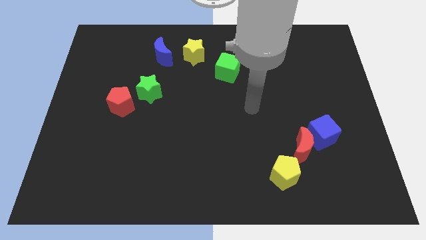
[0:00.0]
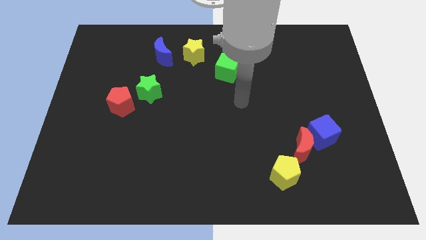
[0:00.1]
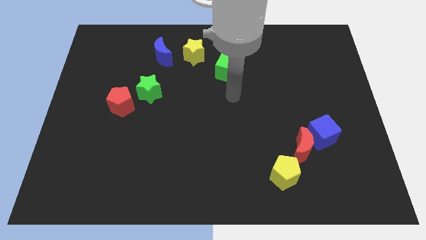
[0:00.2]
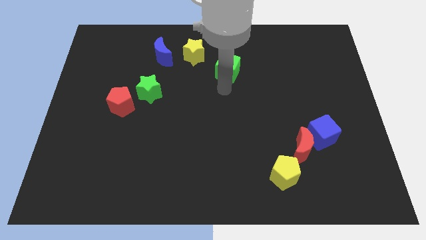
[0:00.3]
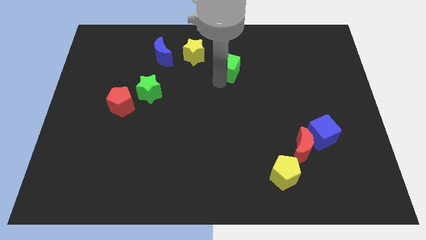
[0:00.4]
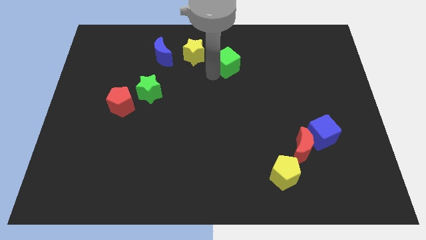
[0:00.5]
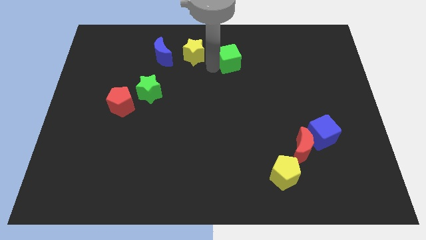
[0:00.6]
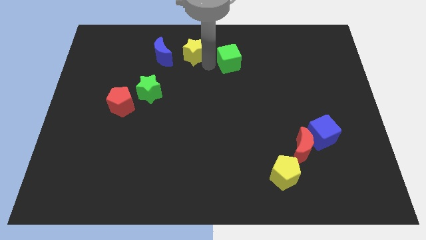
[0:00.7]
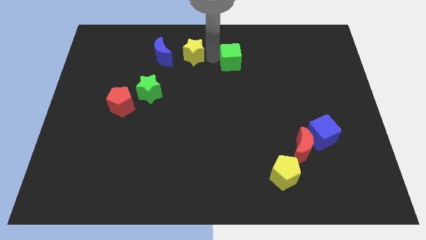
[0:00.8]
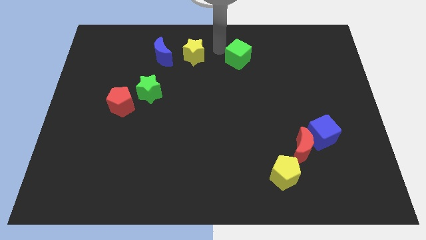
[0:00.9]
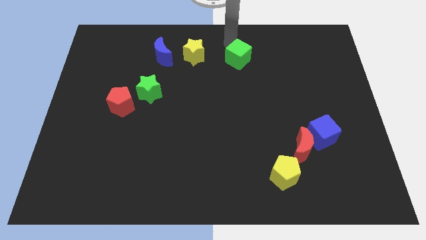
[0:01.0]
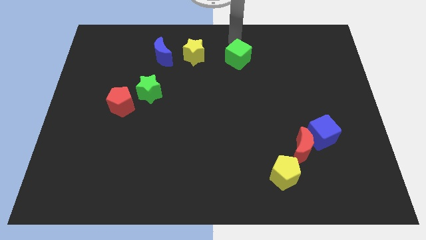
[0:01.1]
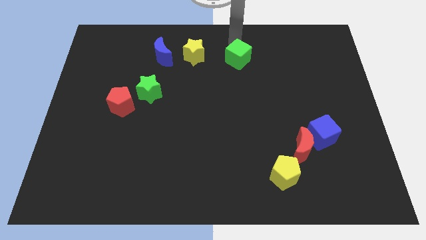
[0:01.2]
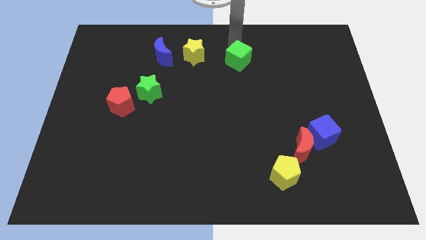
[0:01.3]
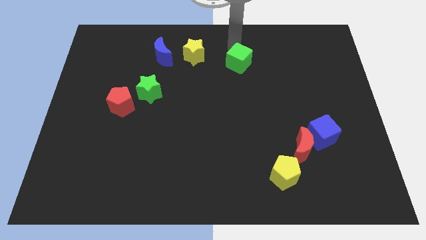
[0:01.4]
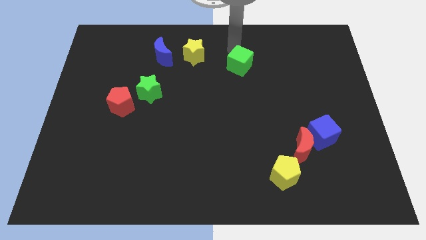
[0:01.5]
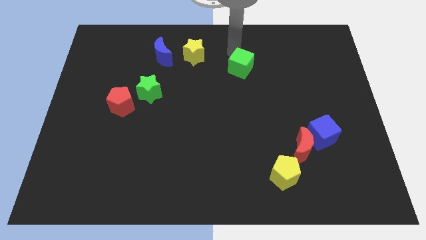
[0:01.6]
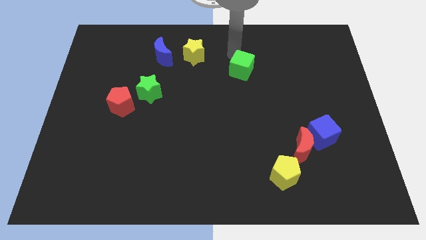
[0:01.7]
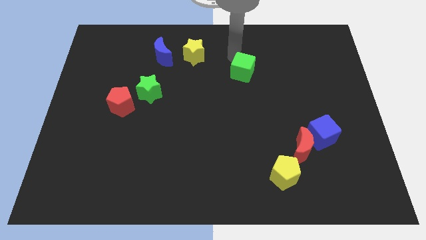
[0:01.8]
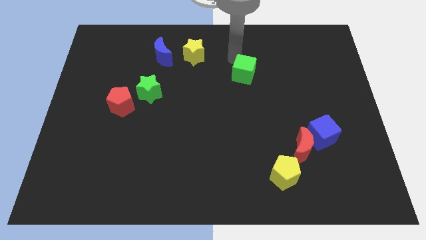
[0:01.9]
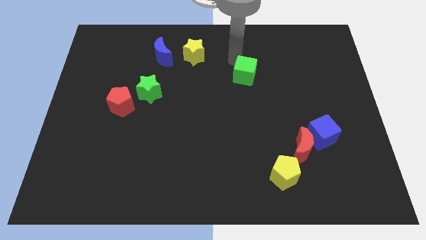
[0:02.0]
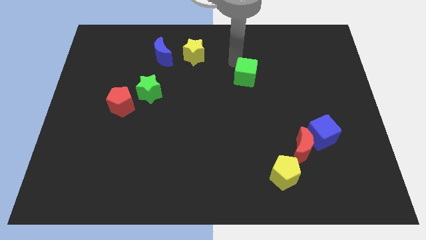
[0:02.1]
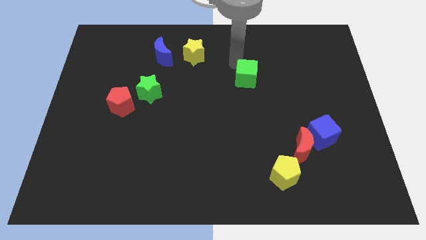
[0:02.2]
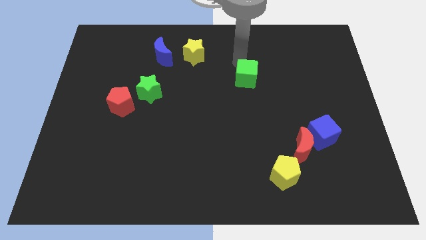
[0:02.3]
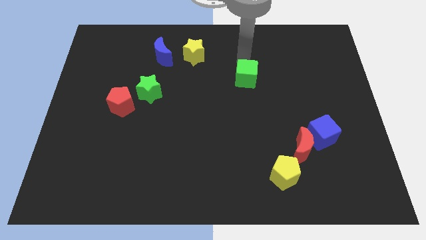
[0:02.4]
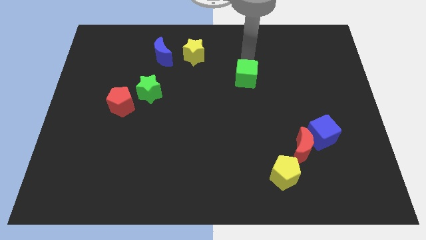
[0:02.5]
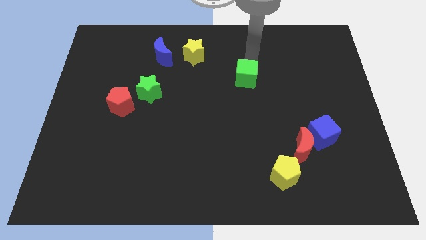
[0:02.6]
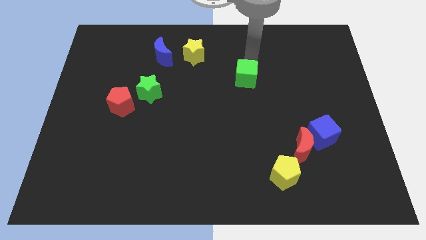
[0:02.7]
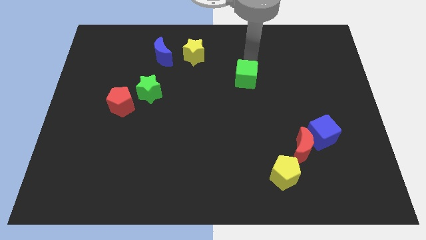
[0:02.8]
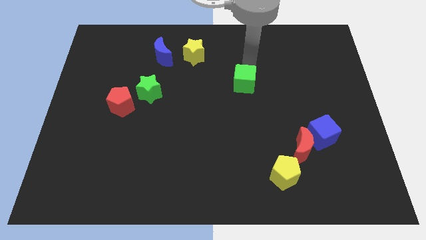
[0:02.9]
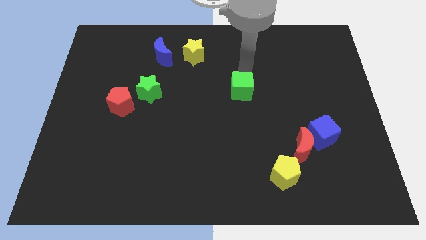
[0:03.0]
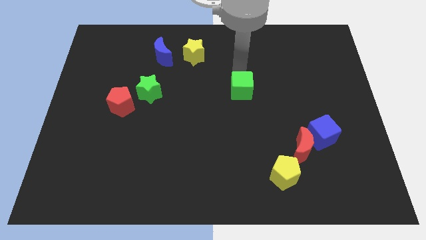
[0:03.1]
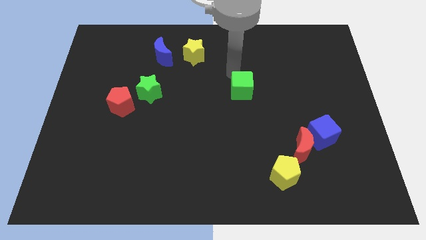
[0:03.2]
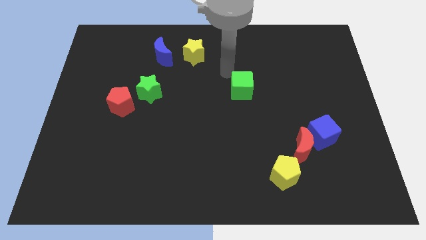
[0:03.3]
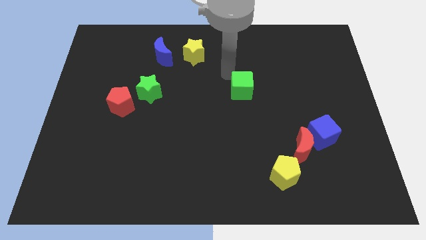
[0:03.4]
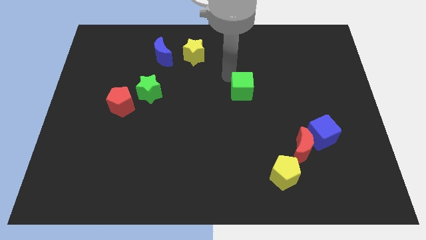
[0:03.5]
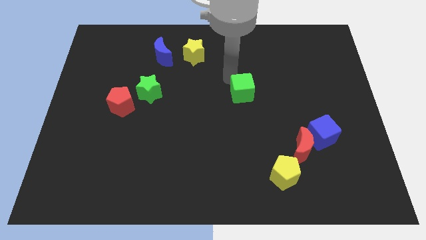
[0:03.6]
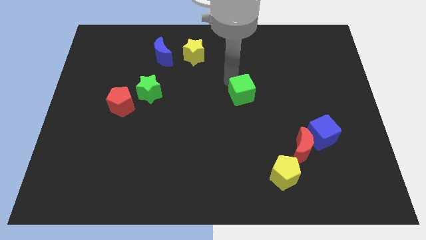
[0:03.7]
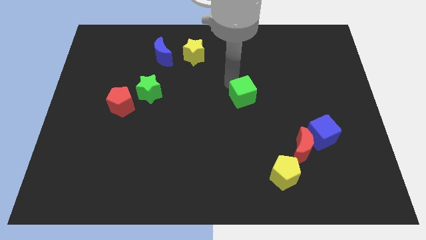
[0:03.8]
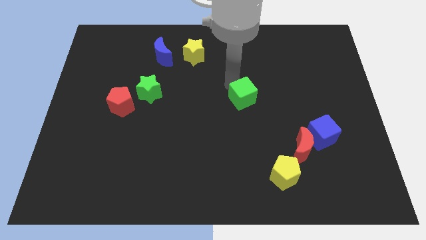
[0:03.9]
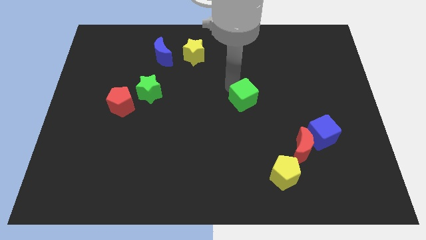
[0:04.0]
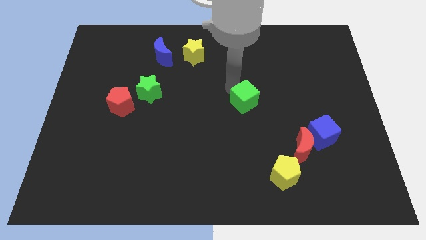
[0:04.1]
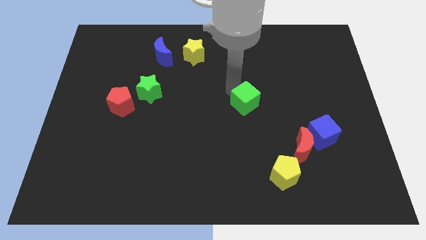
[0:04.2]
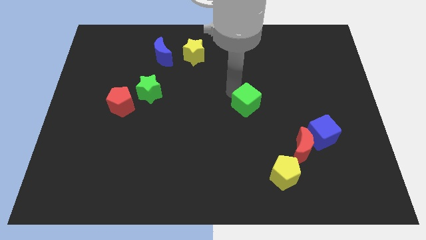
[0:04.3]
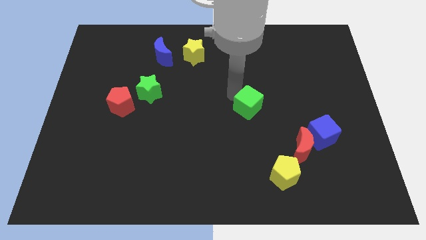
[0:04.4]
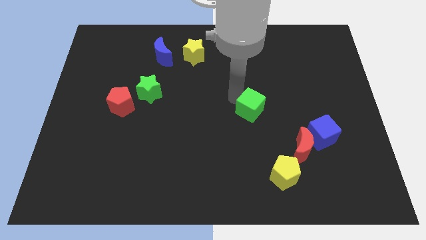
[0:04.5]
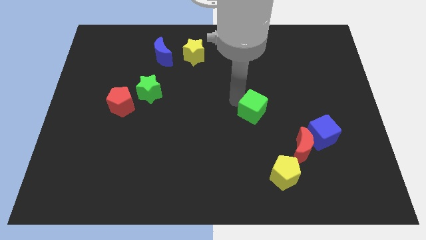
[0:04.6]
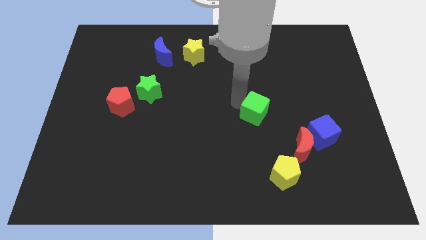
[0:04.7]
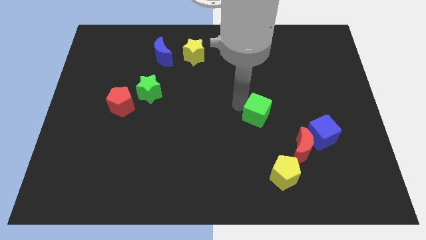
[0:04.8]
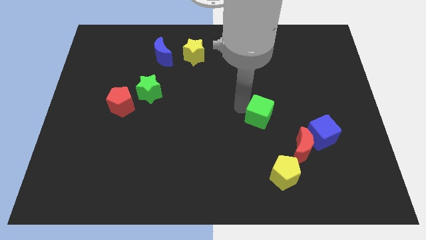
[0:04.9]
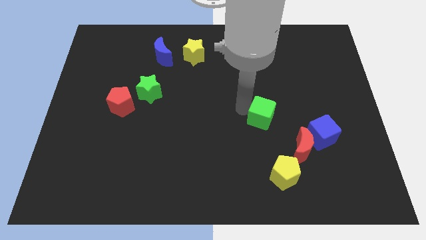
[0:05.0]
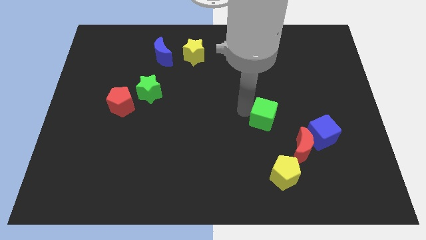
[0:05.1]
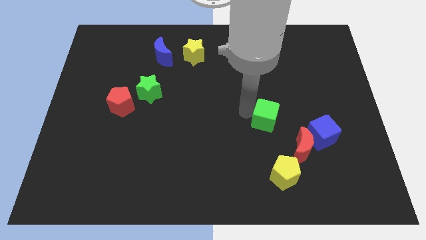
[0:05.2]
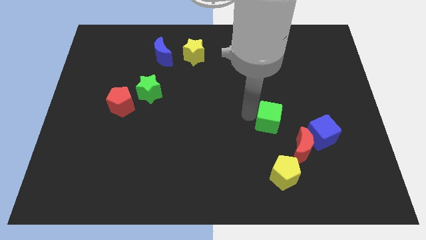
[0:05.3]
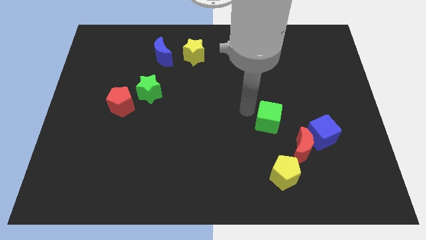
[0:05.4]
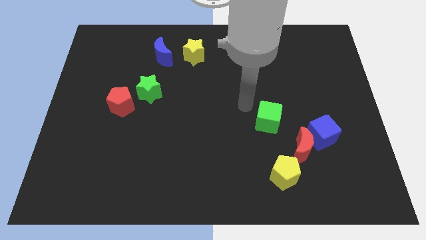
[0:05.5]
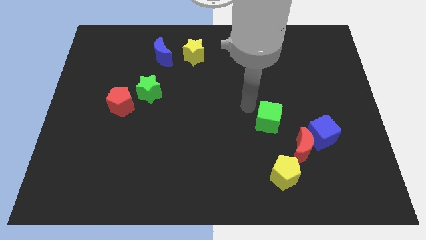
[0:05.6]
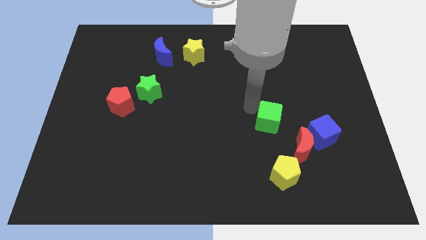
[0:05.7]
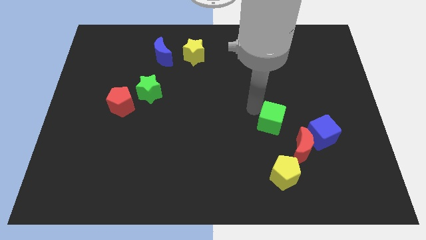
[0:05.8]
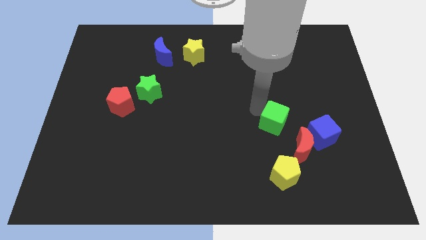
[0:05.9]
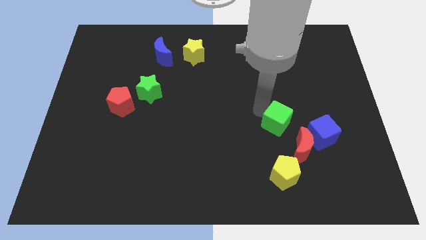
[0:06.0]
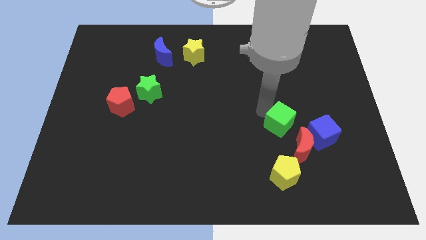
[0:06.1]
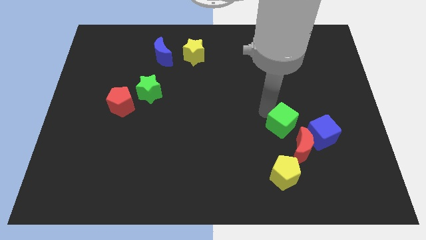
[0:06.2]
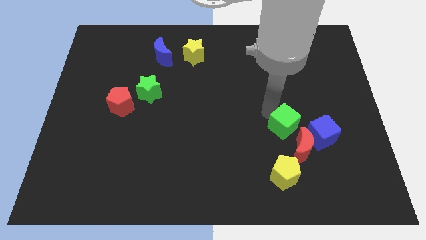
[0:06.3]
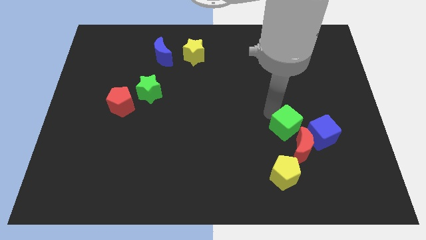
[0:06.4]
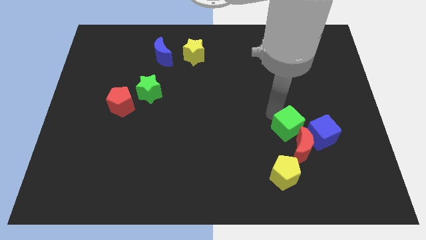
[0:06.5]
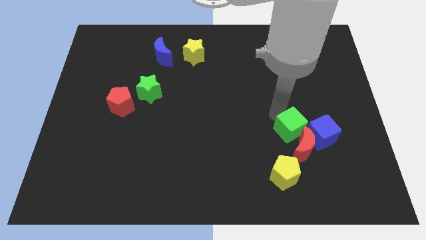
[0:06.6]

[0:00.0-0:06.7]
put the green cube to the red moon
